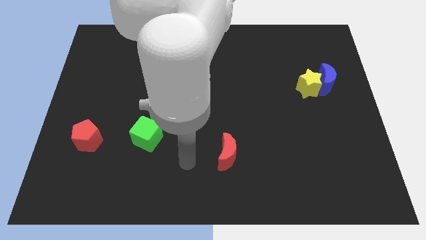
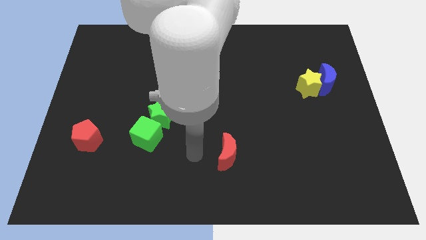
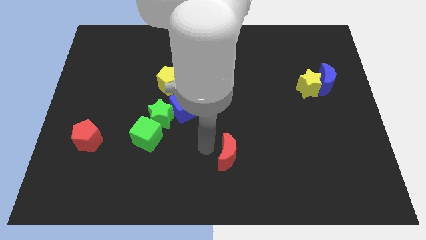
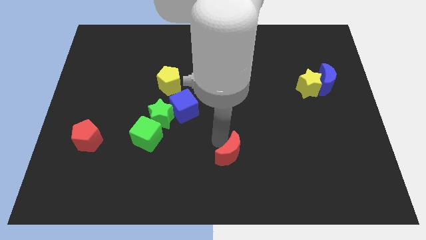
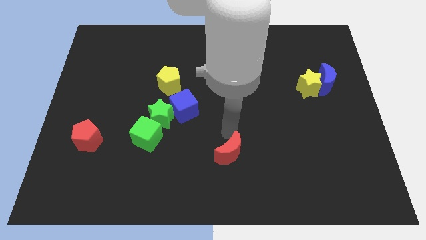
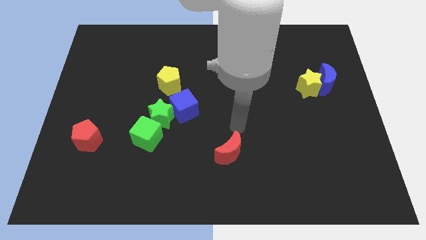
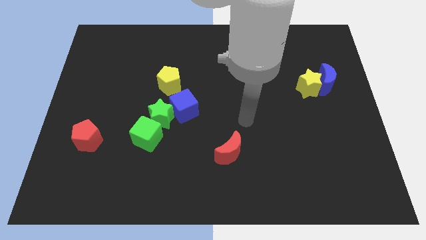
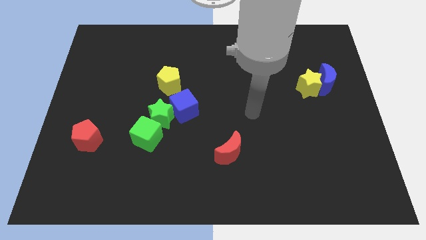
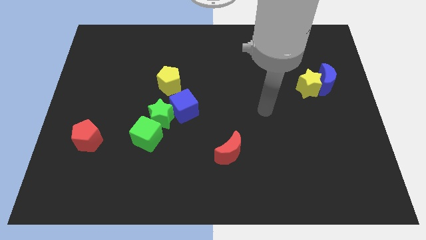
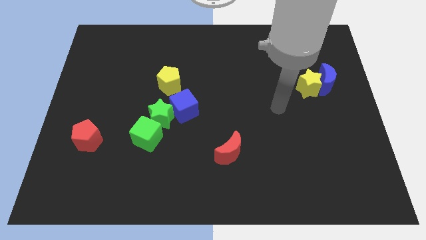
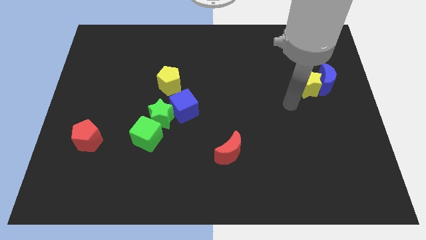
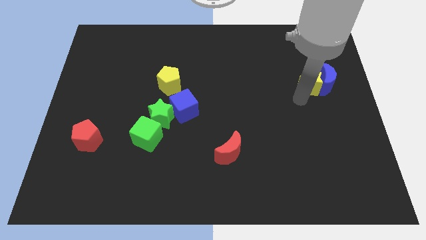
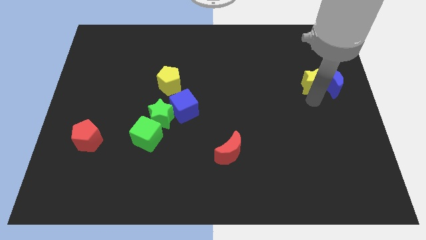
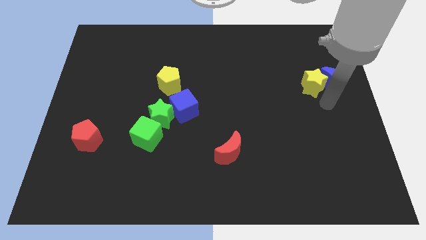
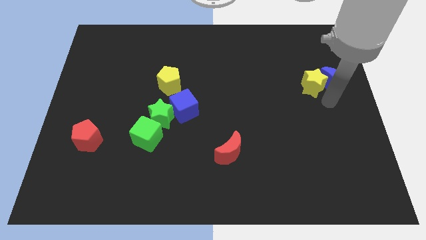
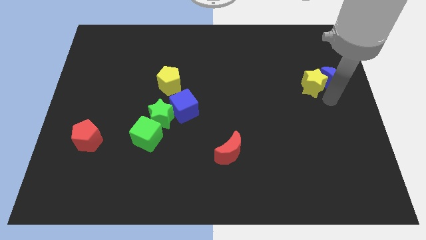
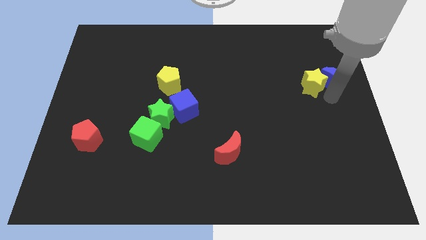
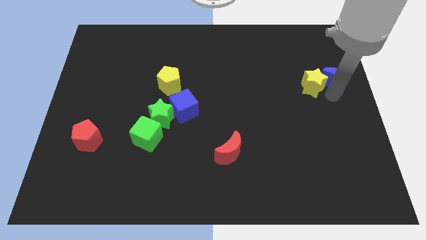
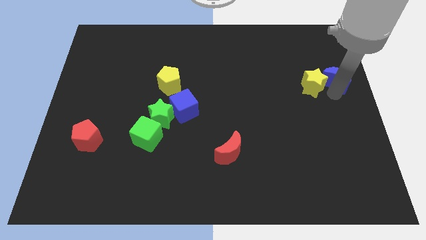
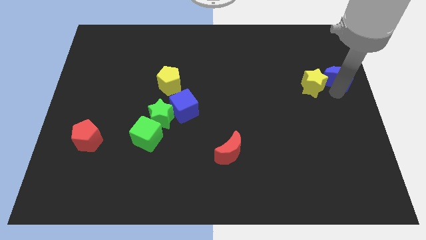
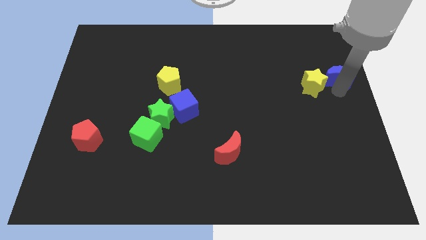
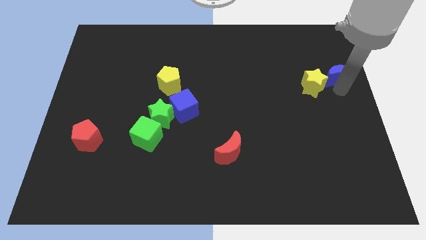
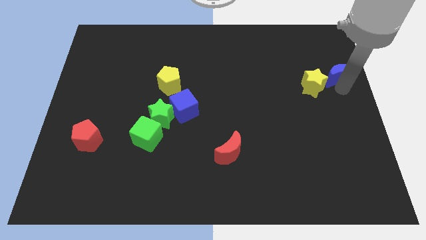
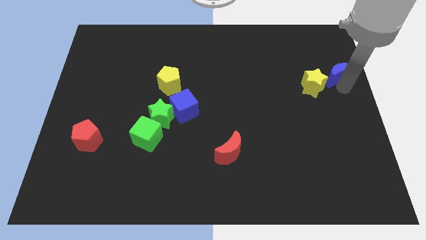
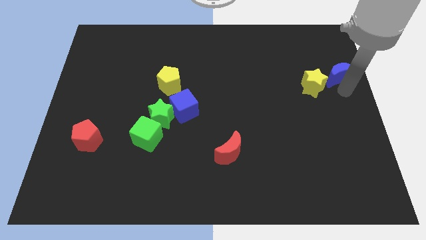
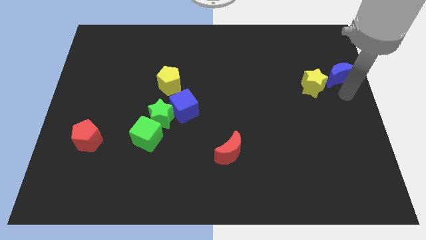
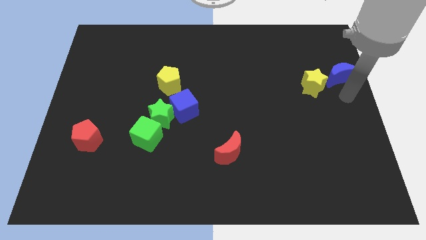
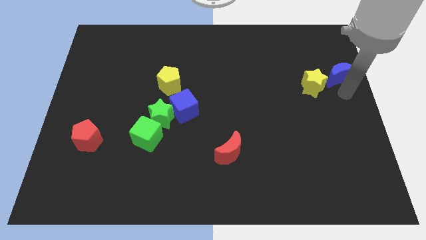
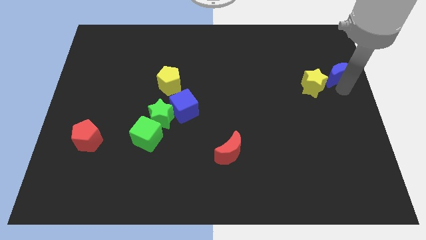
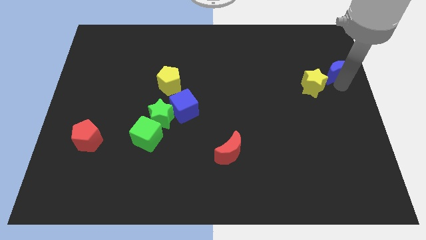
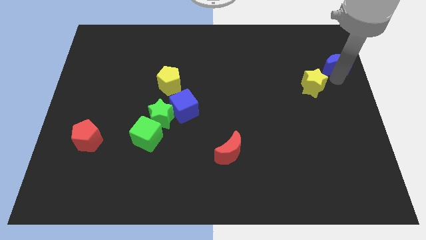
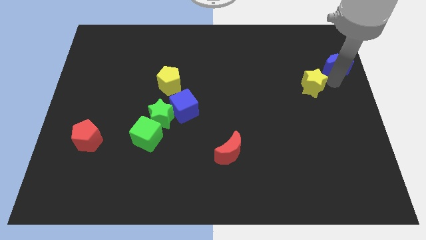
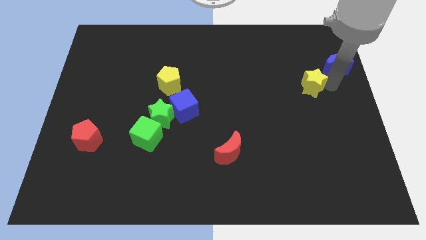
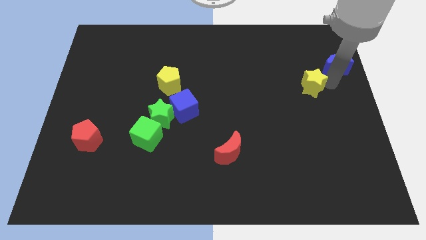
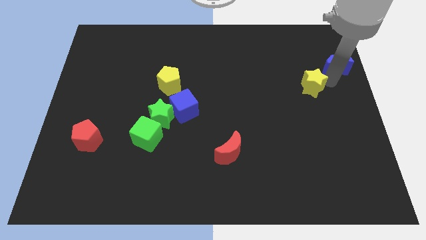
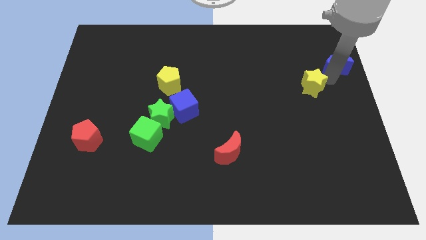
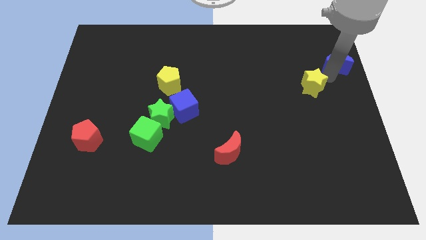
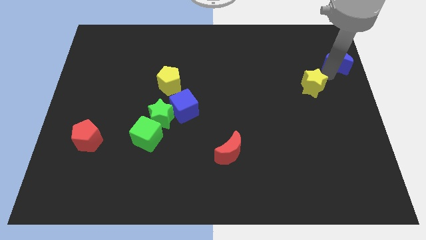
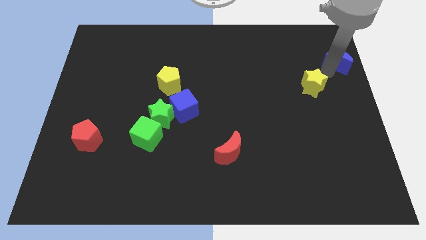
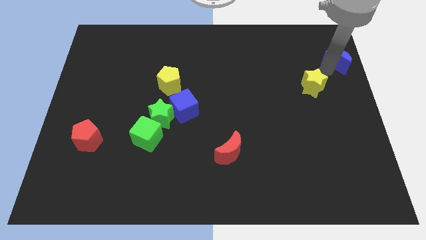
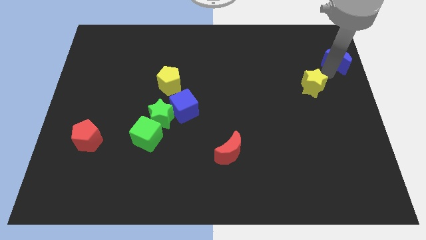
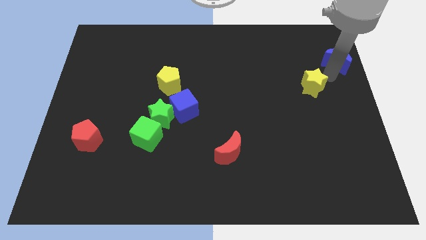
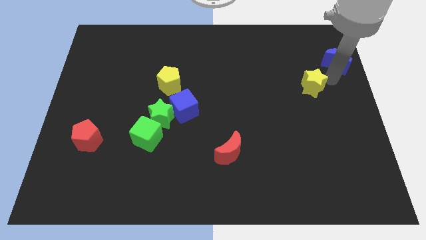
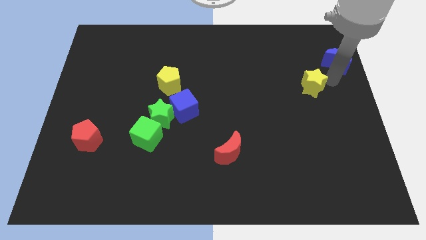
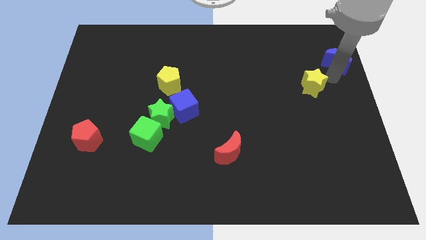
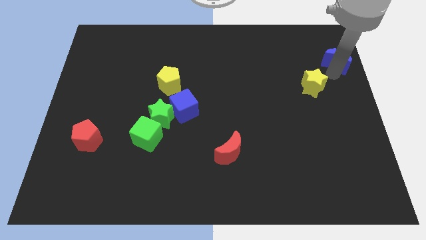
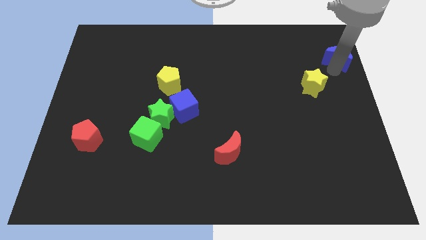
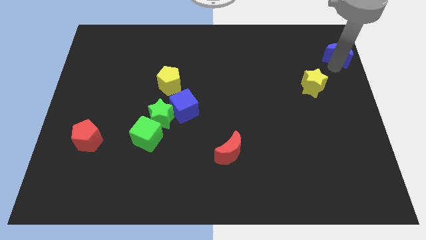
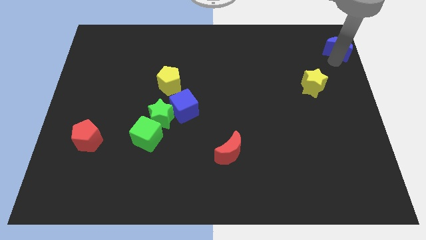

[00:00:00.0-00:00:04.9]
move the blue moon to the top right of the board

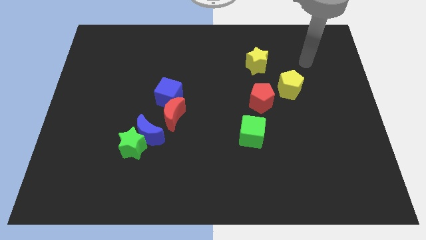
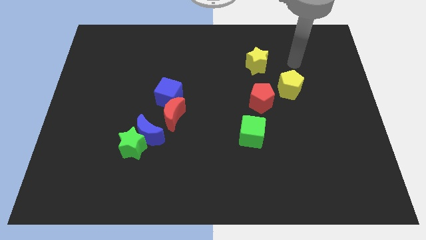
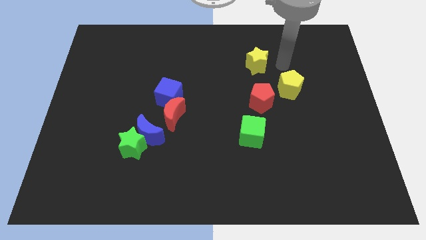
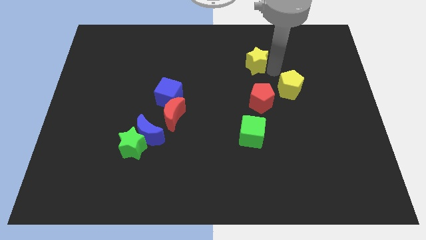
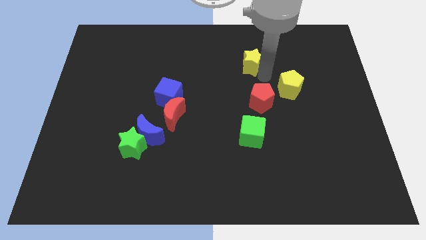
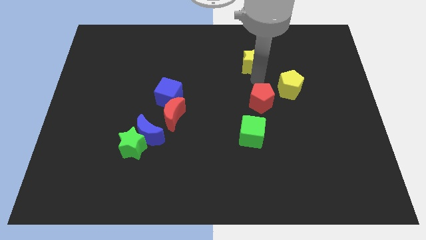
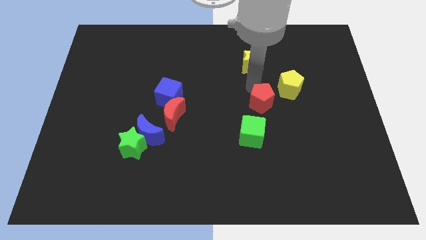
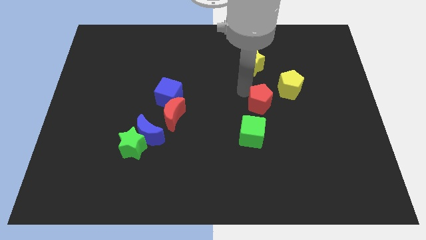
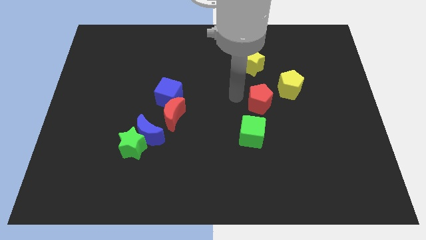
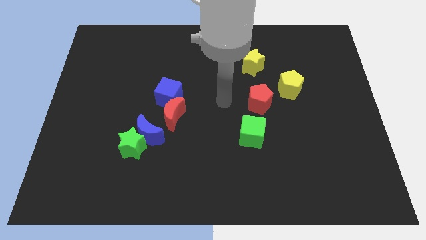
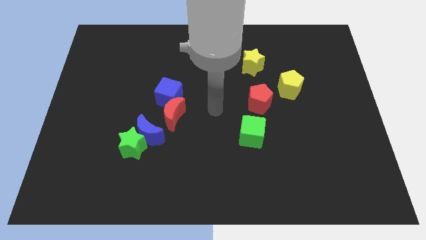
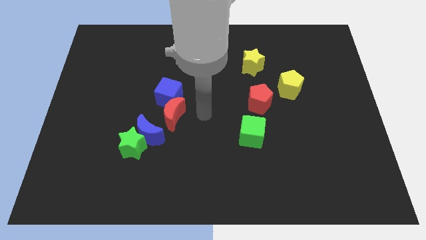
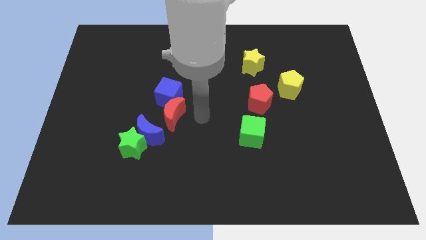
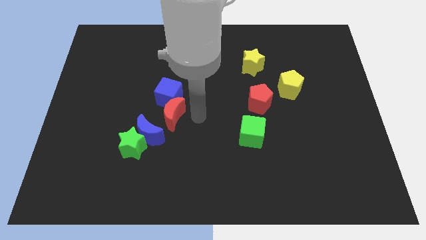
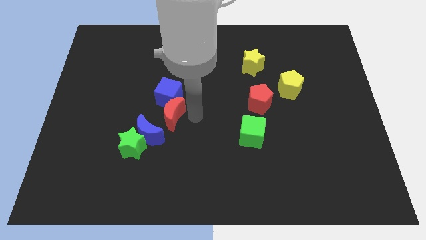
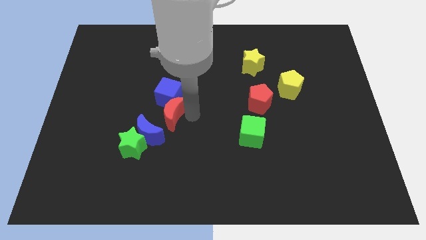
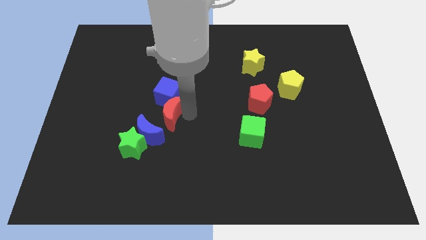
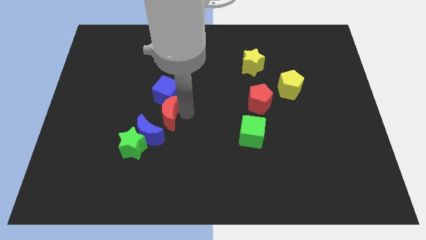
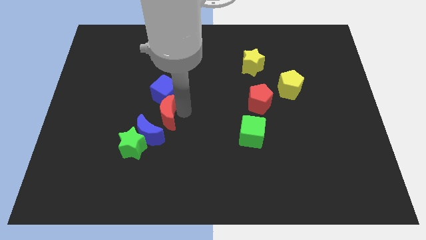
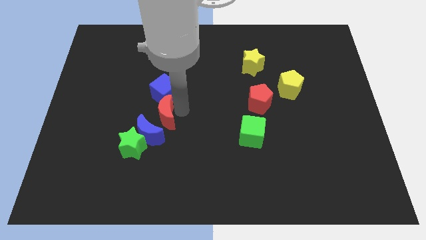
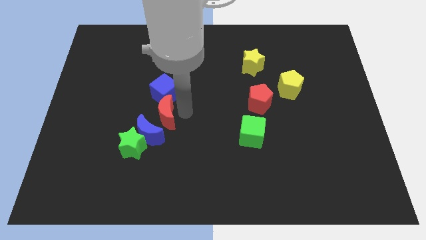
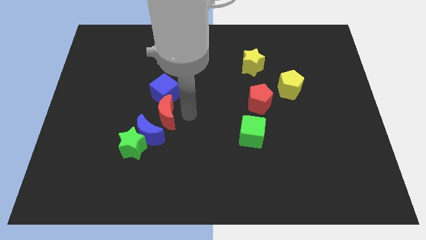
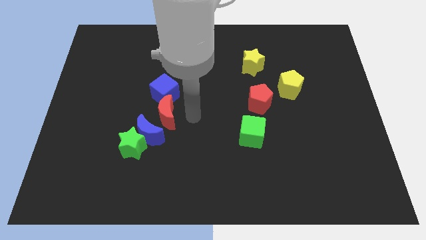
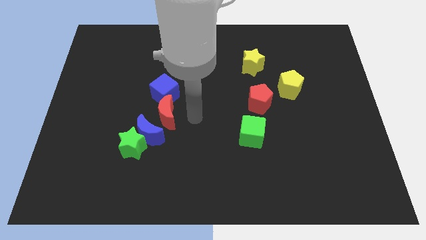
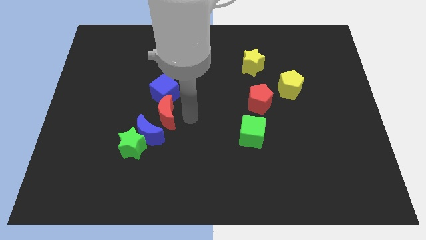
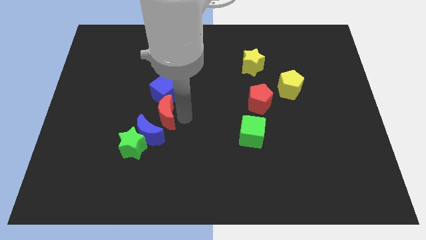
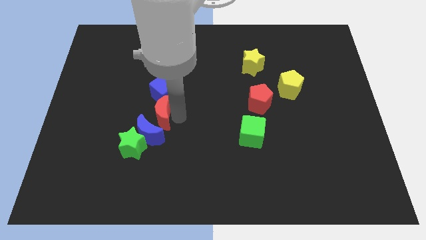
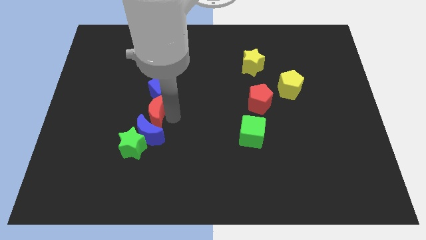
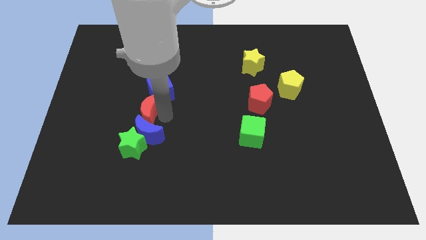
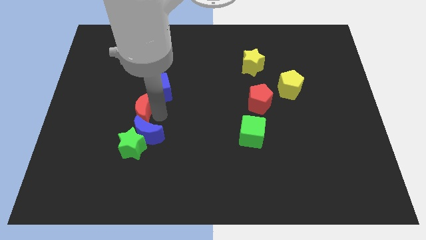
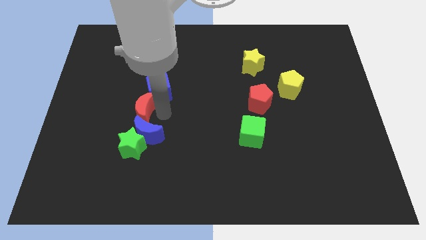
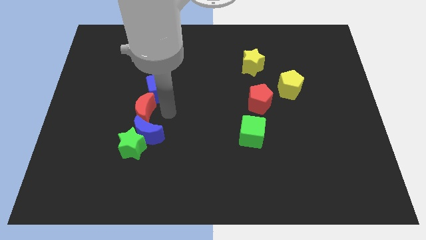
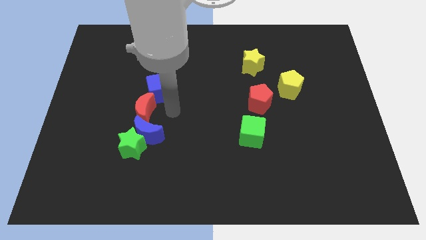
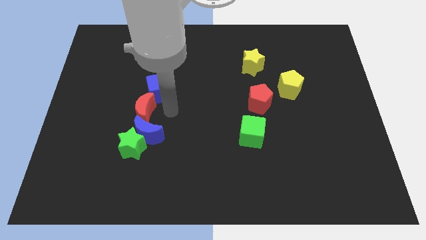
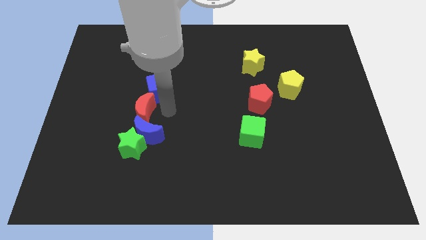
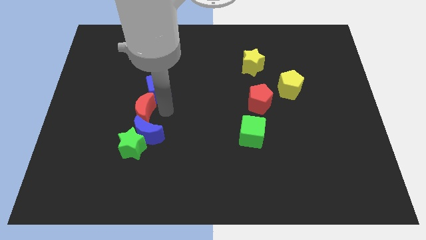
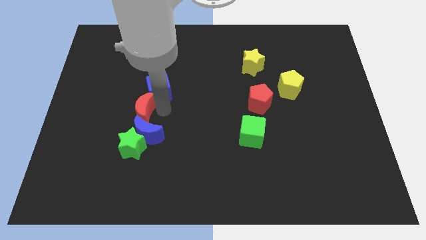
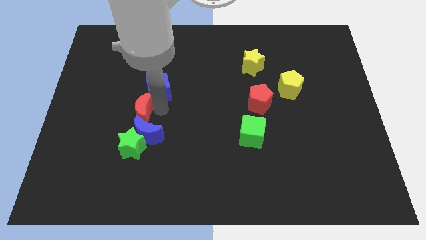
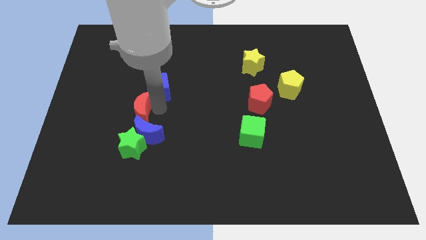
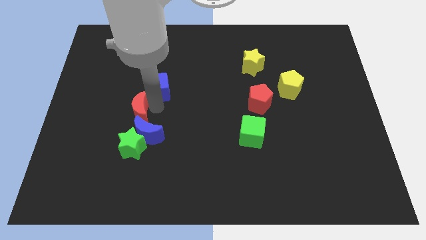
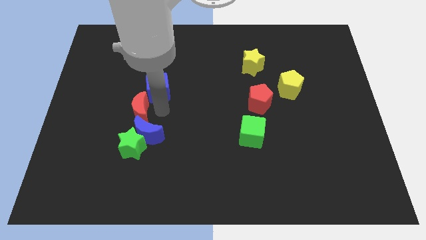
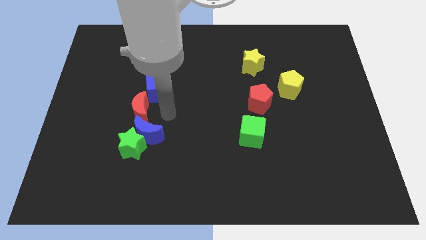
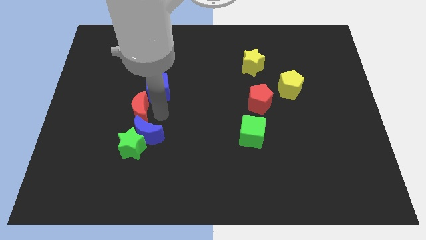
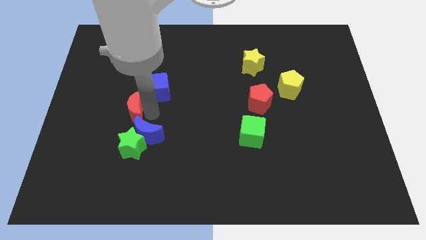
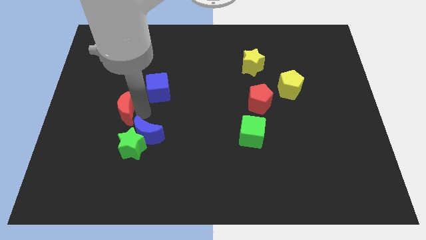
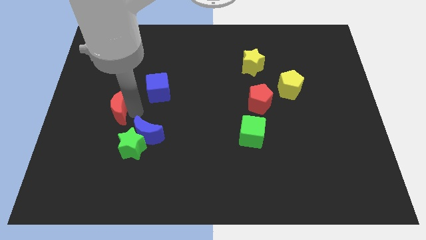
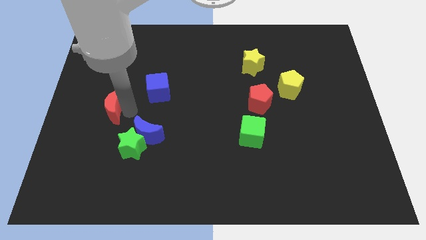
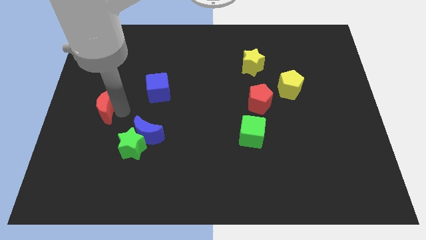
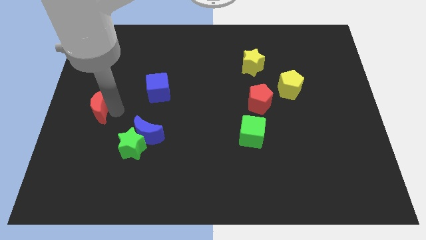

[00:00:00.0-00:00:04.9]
push the red moon to the left side of the board
